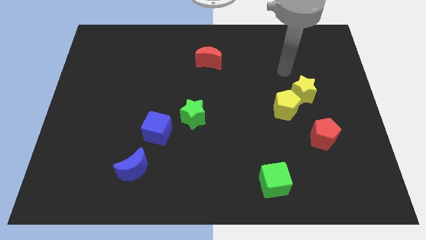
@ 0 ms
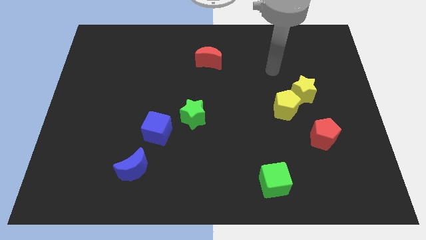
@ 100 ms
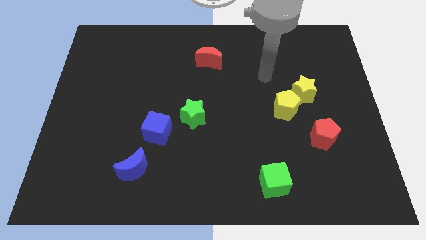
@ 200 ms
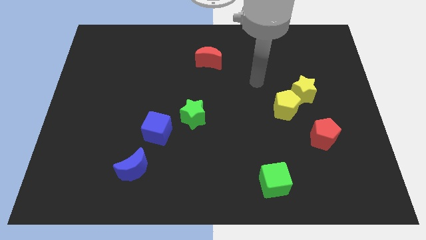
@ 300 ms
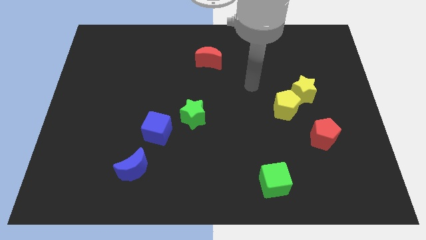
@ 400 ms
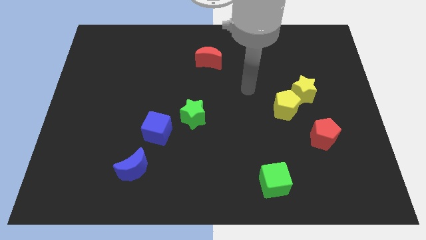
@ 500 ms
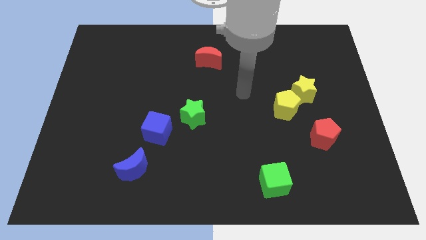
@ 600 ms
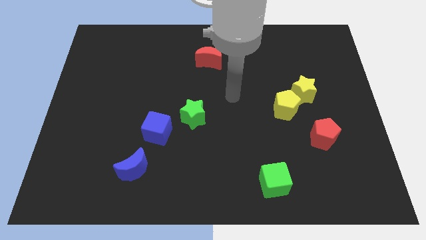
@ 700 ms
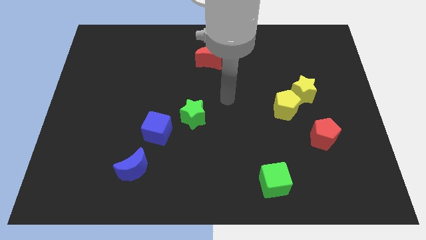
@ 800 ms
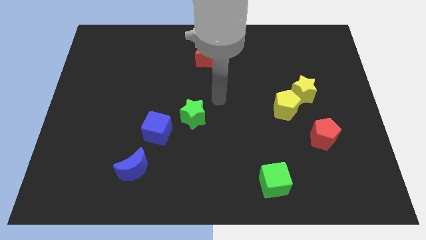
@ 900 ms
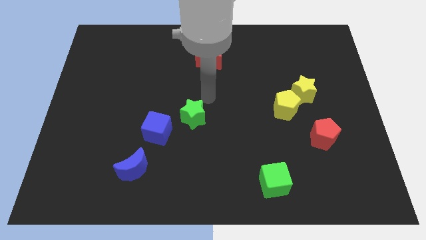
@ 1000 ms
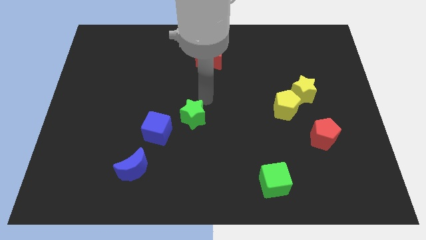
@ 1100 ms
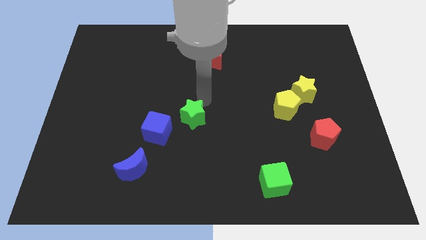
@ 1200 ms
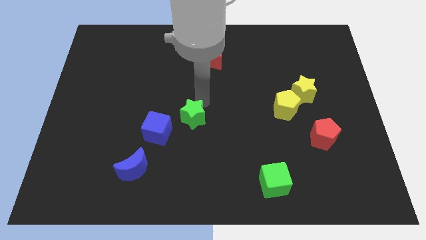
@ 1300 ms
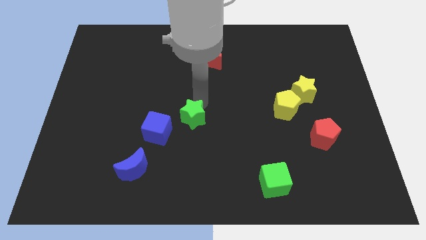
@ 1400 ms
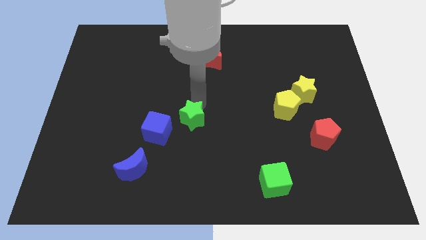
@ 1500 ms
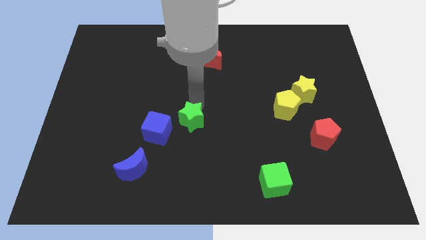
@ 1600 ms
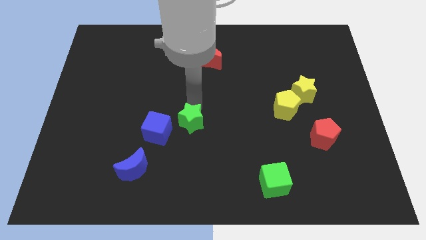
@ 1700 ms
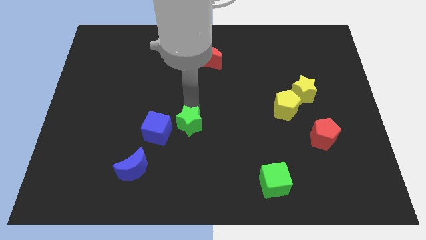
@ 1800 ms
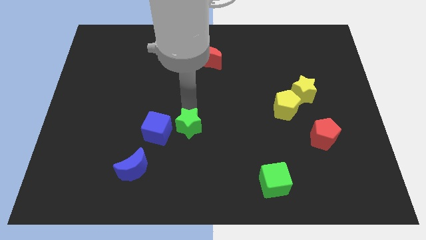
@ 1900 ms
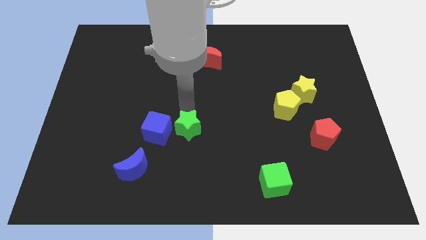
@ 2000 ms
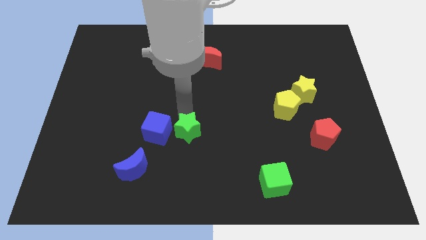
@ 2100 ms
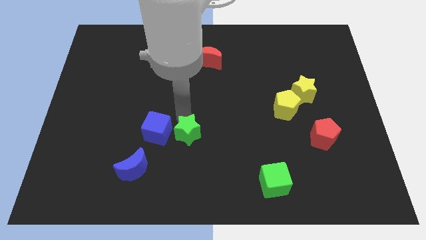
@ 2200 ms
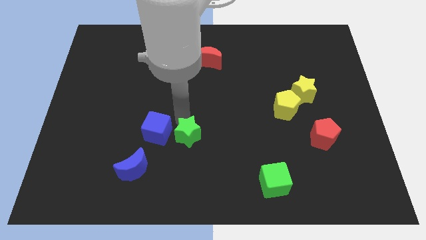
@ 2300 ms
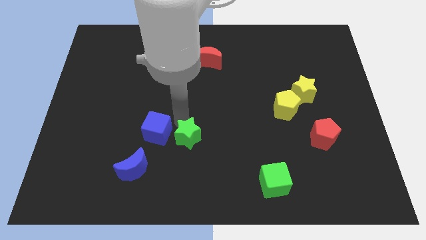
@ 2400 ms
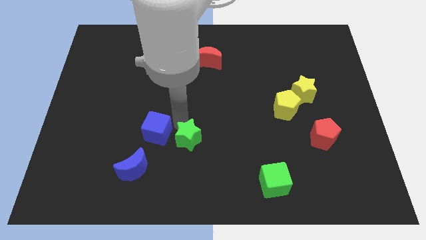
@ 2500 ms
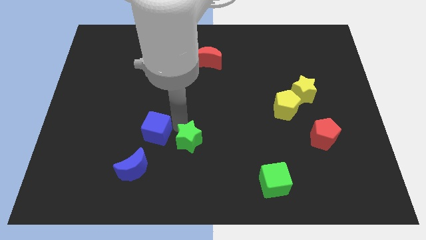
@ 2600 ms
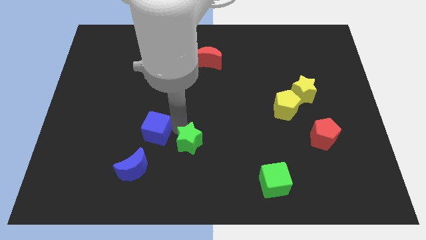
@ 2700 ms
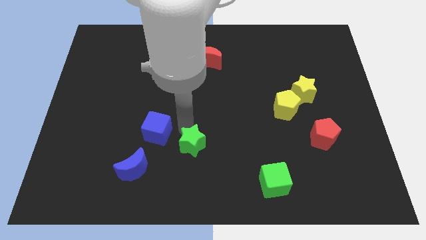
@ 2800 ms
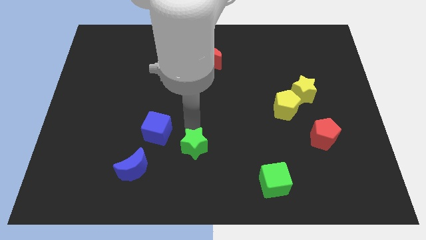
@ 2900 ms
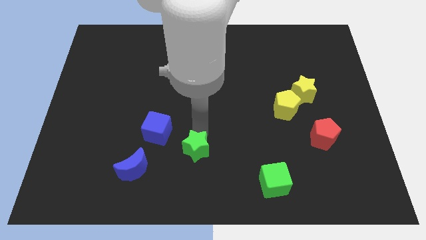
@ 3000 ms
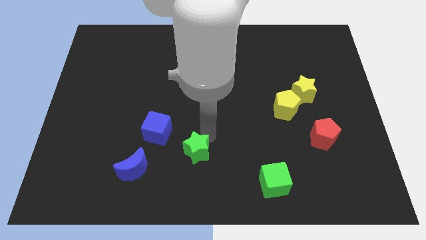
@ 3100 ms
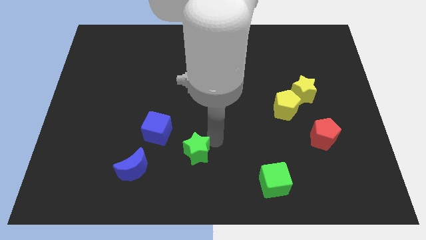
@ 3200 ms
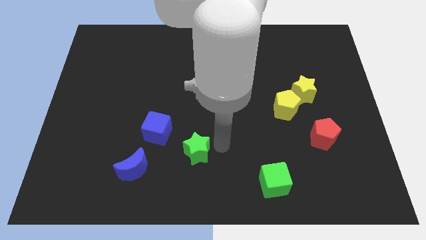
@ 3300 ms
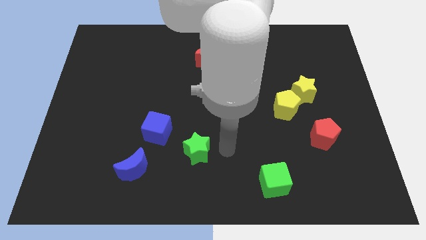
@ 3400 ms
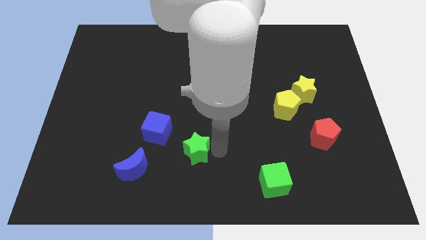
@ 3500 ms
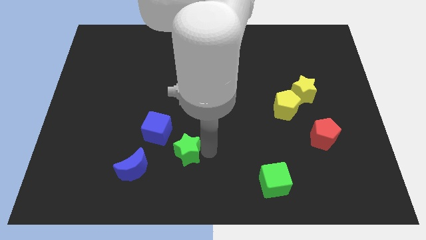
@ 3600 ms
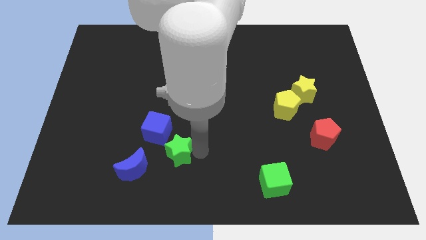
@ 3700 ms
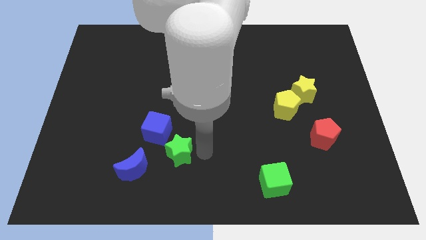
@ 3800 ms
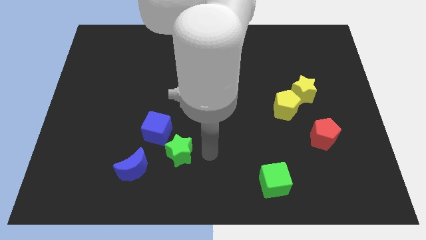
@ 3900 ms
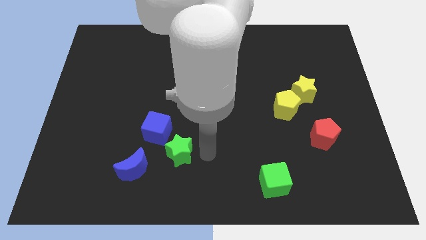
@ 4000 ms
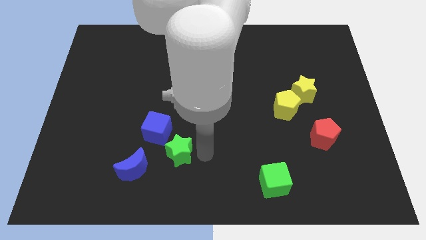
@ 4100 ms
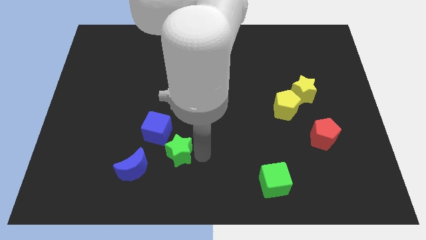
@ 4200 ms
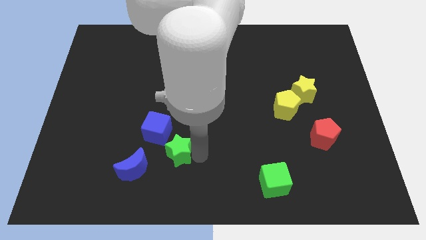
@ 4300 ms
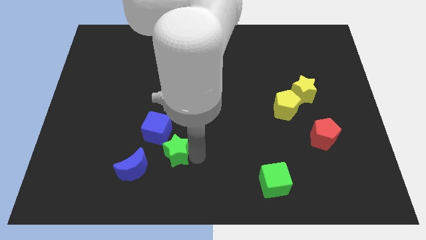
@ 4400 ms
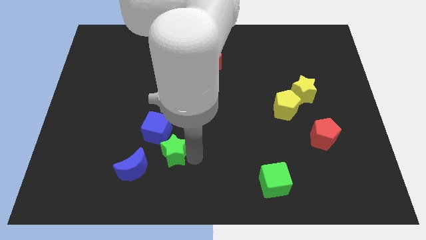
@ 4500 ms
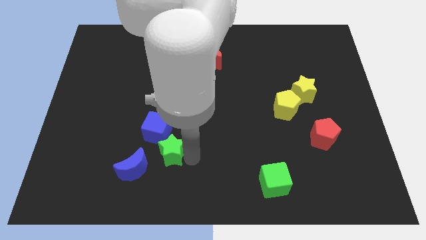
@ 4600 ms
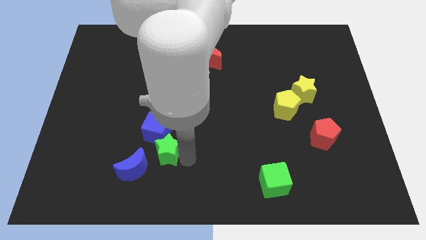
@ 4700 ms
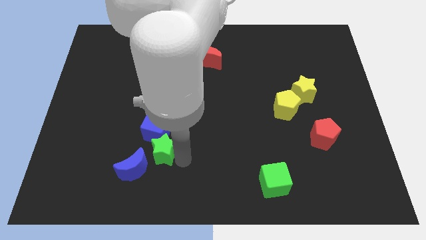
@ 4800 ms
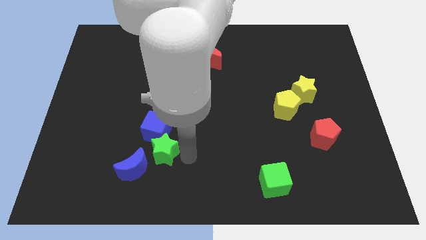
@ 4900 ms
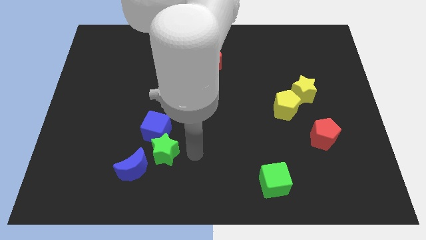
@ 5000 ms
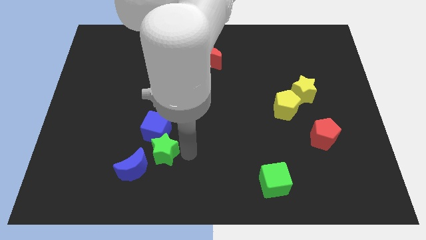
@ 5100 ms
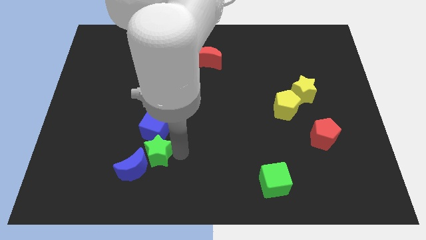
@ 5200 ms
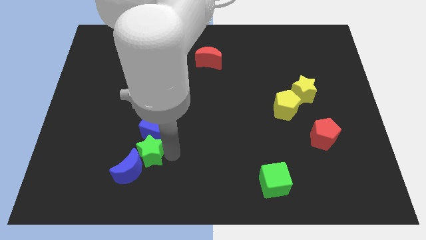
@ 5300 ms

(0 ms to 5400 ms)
put the green star diagonally down and to the left of the blue cube

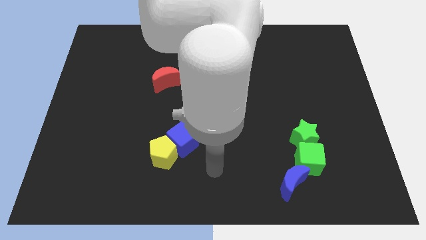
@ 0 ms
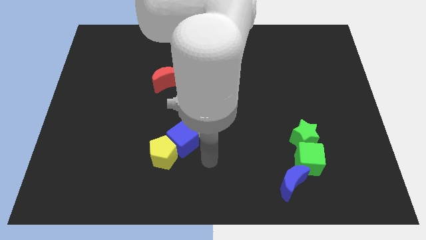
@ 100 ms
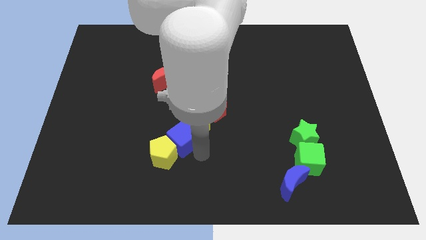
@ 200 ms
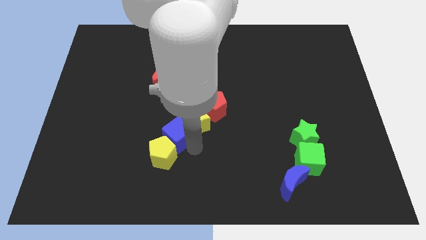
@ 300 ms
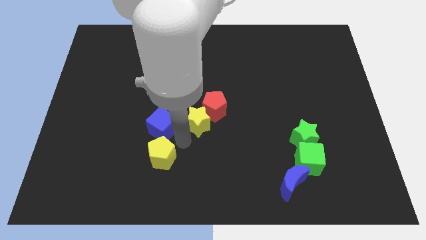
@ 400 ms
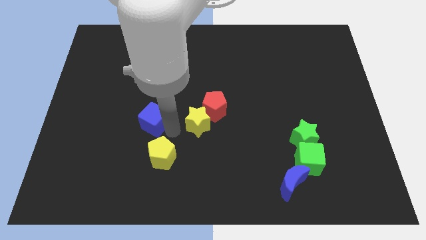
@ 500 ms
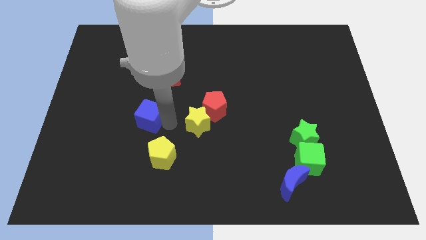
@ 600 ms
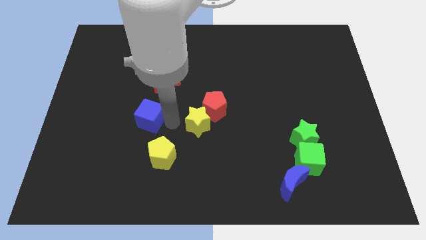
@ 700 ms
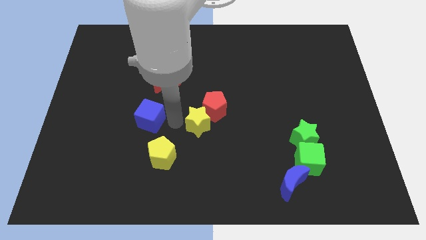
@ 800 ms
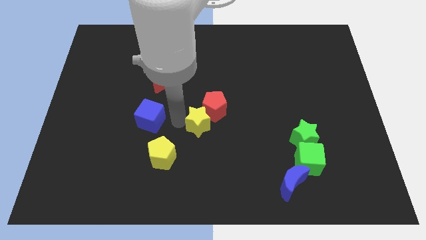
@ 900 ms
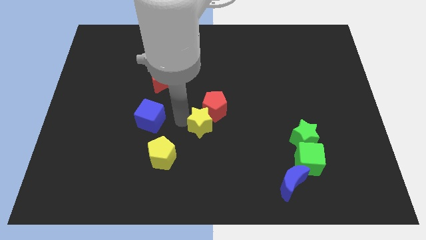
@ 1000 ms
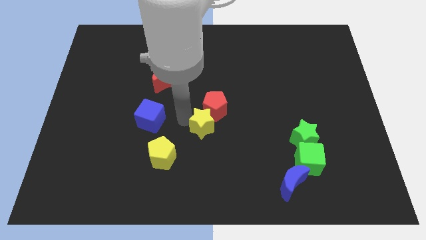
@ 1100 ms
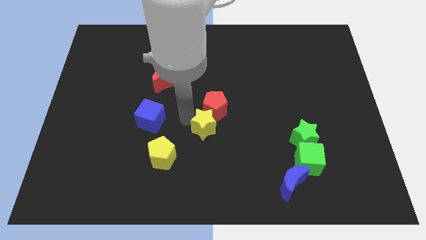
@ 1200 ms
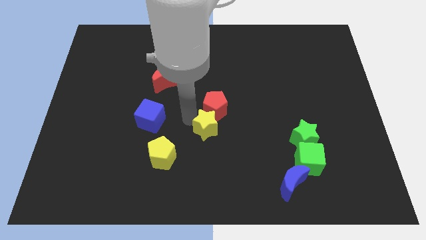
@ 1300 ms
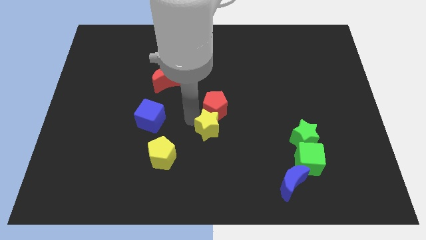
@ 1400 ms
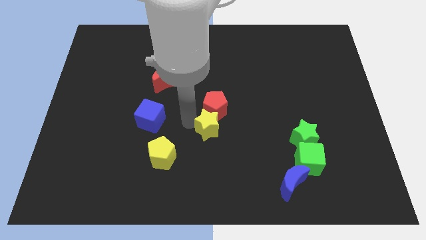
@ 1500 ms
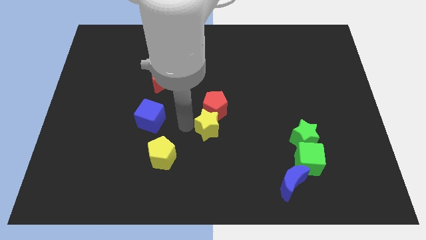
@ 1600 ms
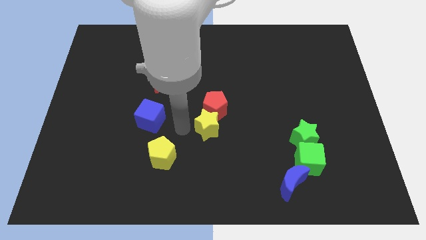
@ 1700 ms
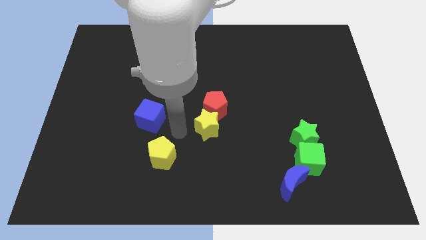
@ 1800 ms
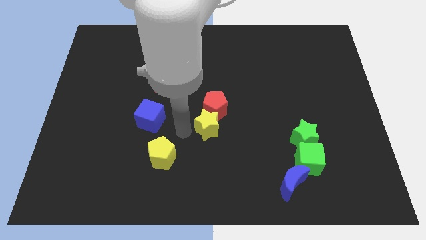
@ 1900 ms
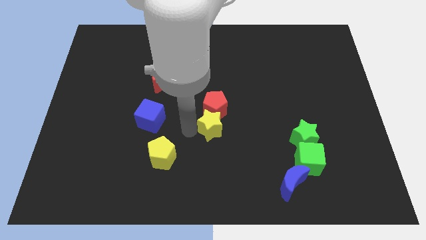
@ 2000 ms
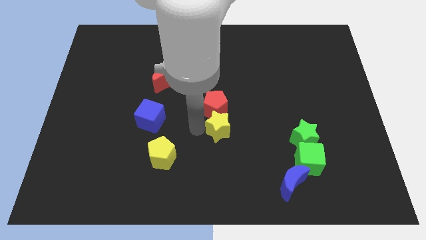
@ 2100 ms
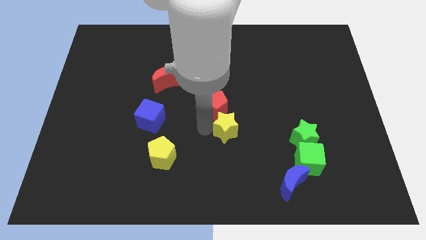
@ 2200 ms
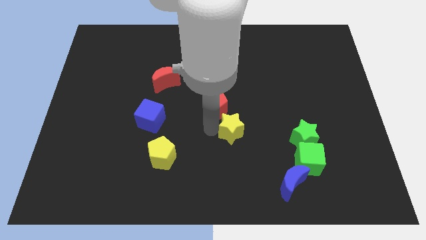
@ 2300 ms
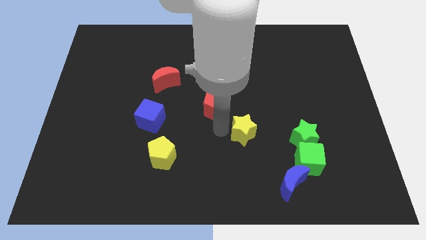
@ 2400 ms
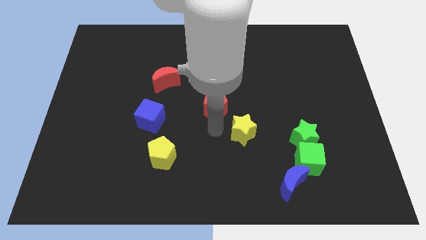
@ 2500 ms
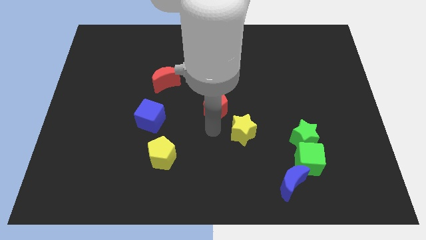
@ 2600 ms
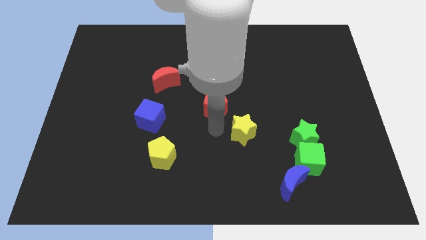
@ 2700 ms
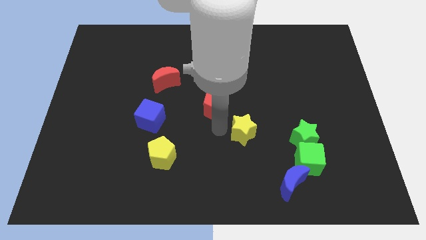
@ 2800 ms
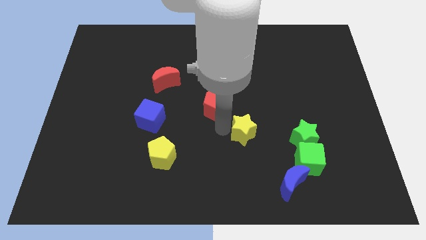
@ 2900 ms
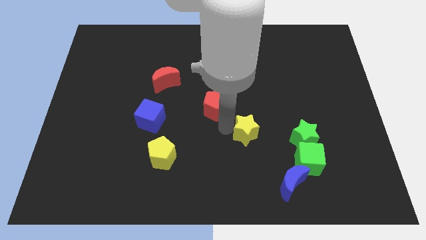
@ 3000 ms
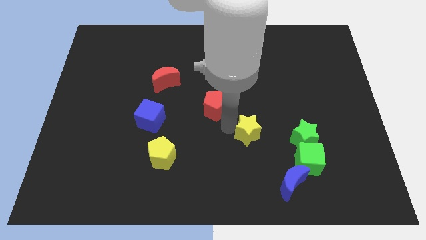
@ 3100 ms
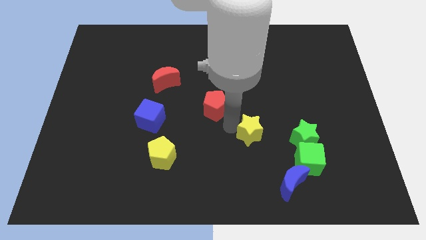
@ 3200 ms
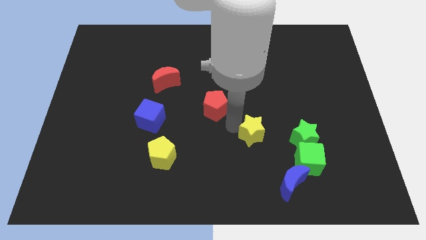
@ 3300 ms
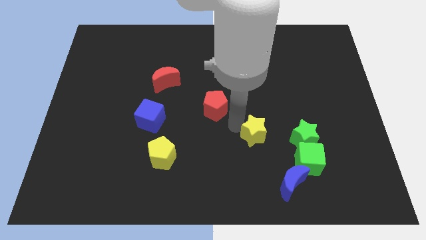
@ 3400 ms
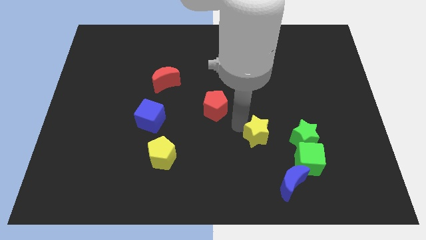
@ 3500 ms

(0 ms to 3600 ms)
move the yellow star to the top left of the green cube
